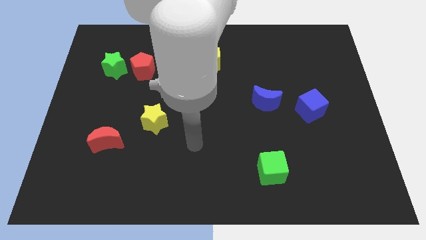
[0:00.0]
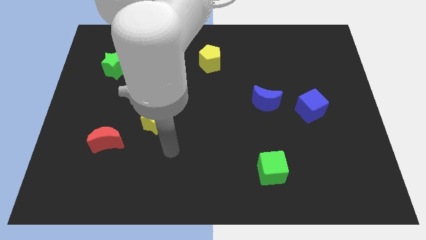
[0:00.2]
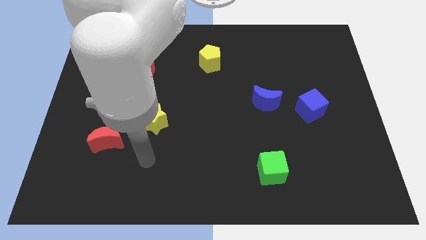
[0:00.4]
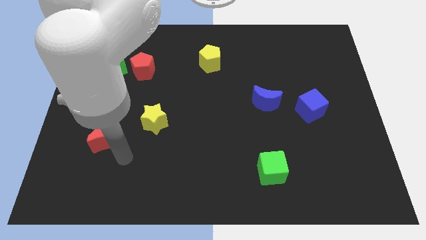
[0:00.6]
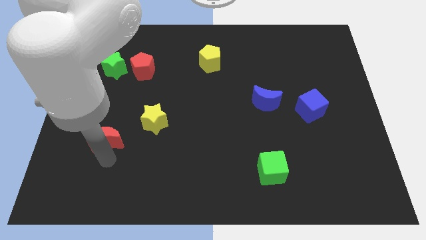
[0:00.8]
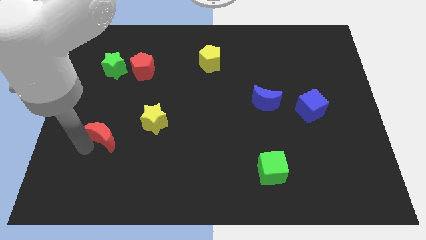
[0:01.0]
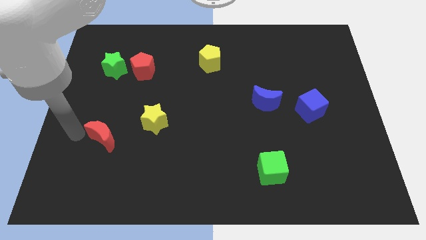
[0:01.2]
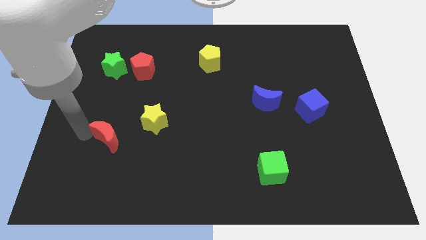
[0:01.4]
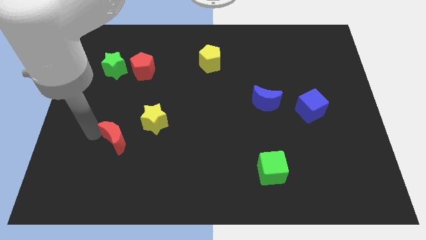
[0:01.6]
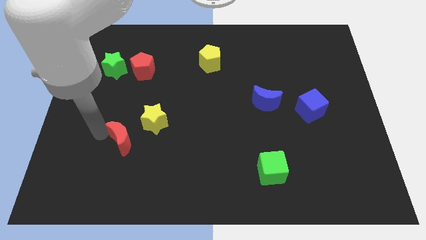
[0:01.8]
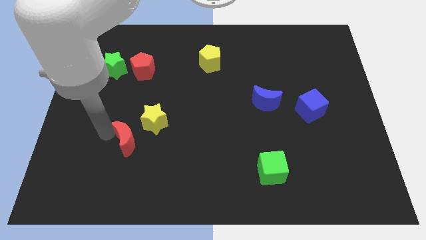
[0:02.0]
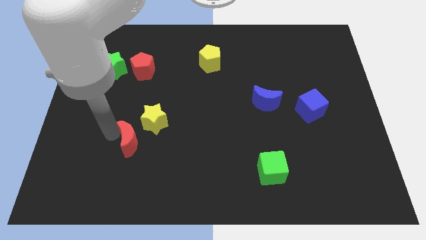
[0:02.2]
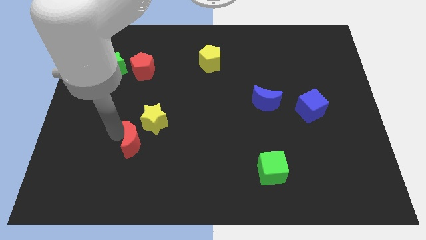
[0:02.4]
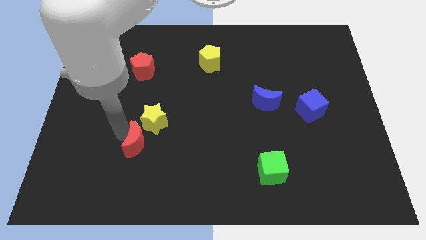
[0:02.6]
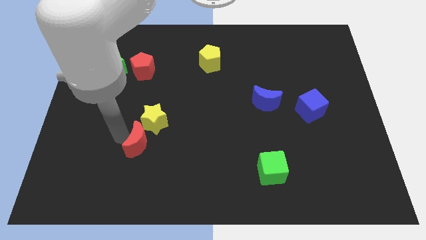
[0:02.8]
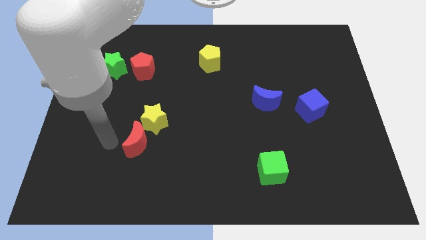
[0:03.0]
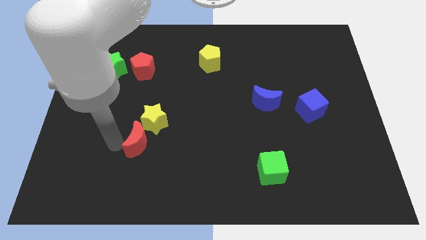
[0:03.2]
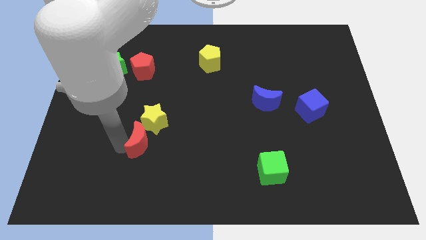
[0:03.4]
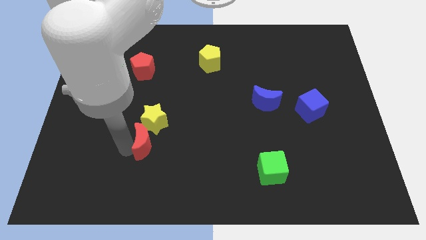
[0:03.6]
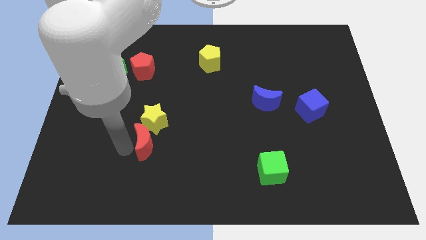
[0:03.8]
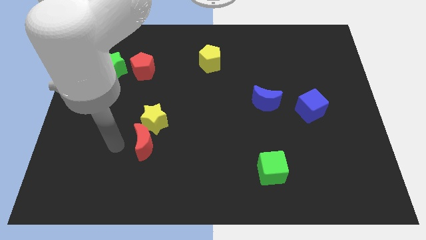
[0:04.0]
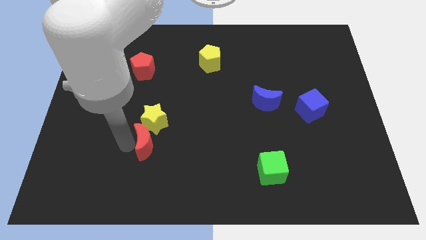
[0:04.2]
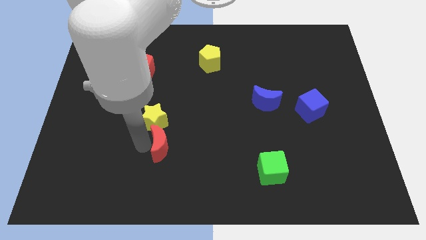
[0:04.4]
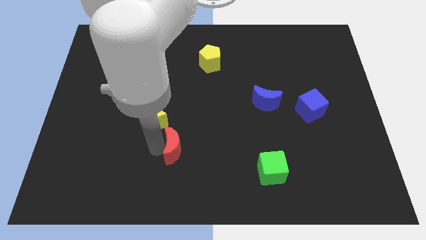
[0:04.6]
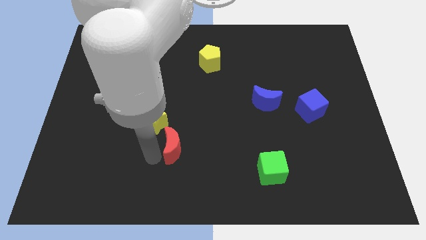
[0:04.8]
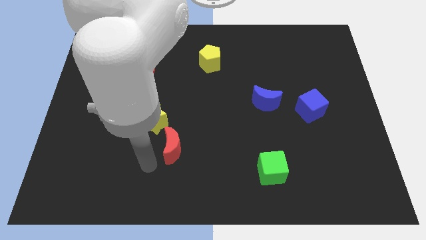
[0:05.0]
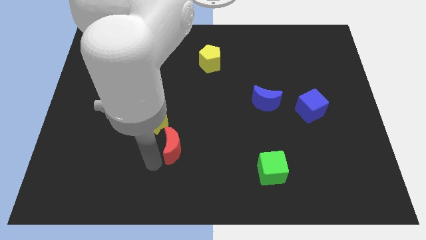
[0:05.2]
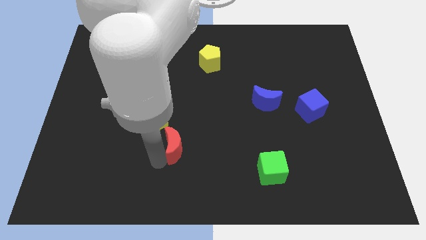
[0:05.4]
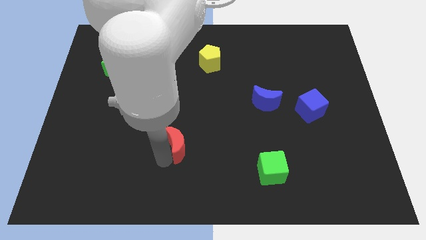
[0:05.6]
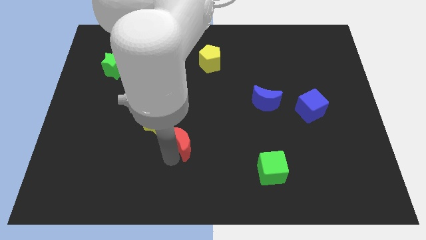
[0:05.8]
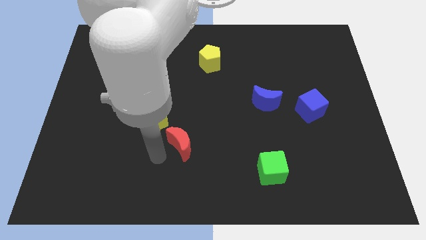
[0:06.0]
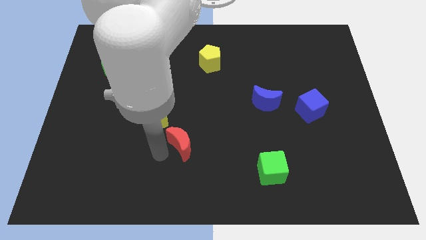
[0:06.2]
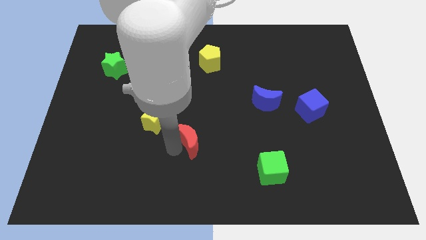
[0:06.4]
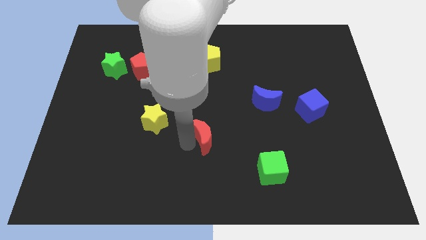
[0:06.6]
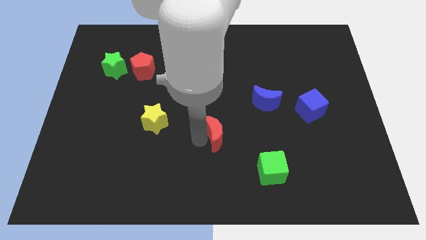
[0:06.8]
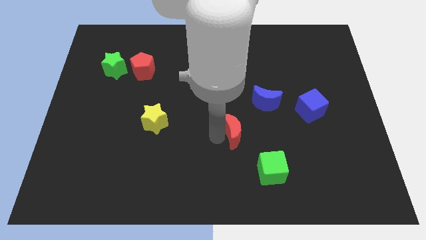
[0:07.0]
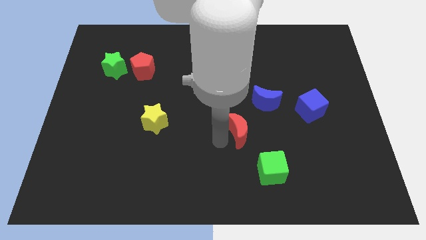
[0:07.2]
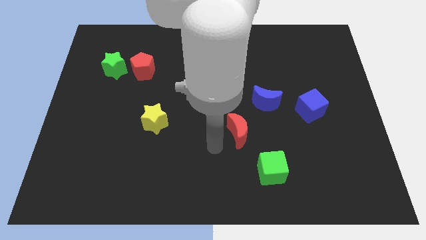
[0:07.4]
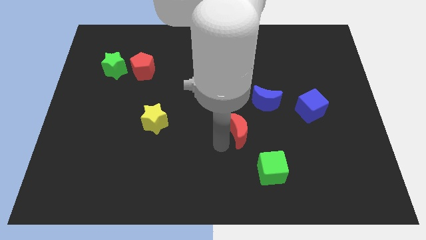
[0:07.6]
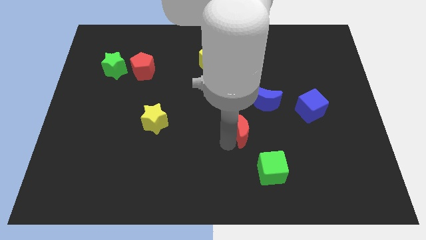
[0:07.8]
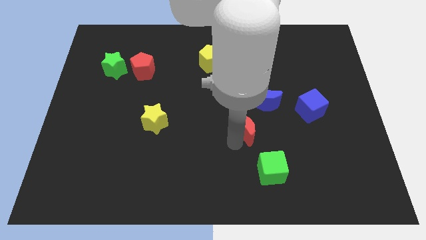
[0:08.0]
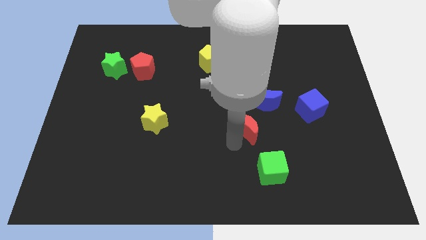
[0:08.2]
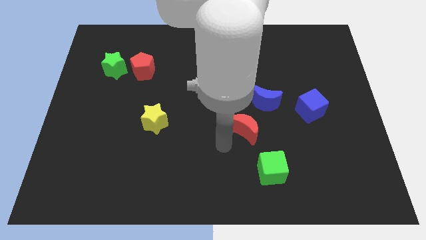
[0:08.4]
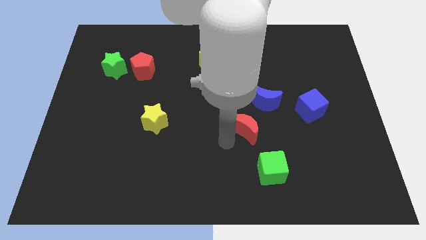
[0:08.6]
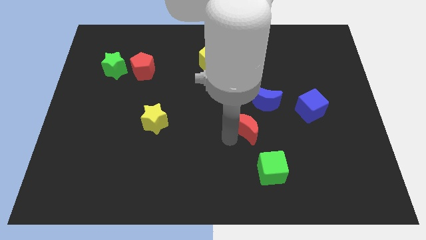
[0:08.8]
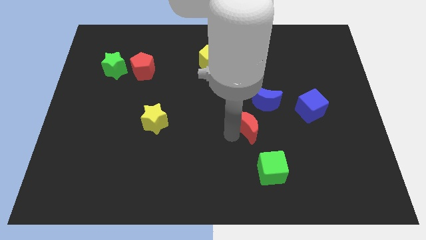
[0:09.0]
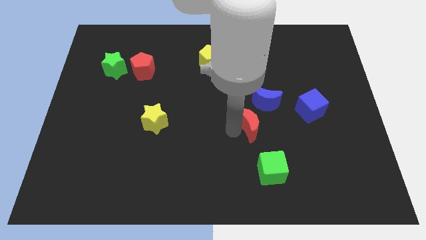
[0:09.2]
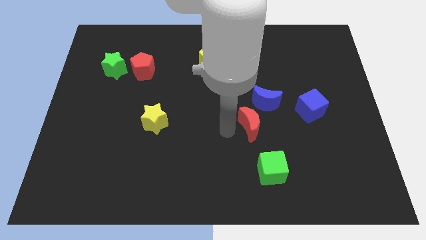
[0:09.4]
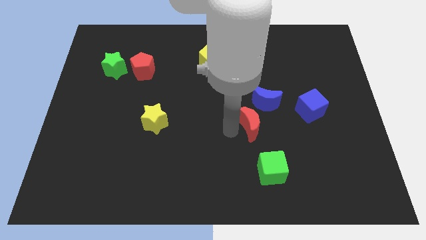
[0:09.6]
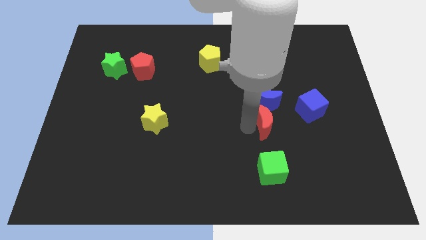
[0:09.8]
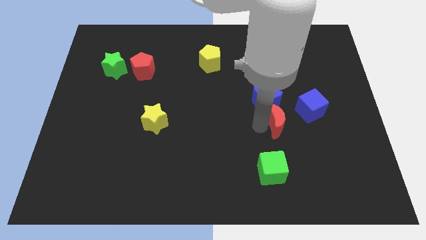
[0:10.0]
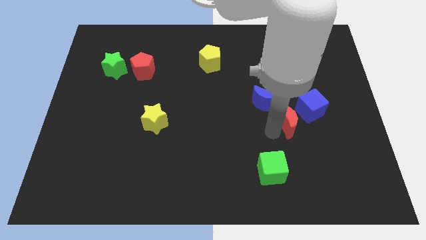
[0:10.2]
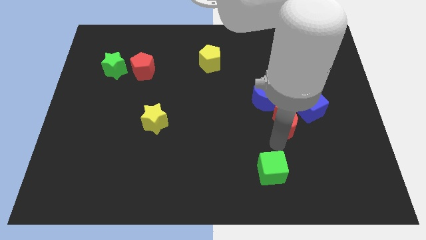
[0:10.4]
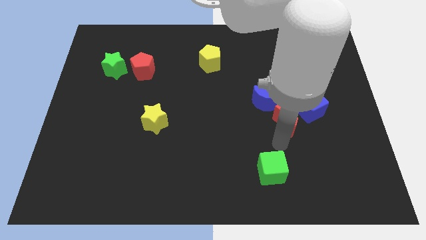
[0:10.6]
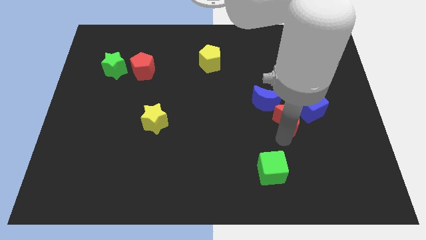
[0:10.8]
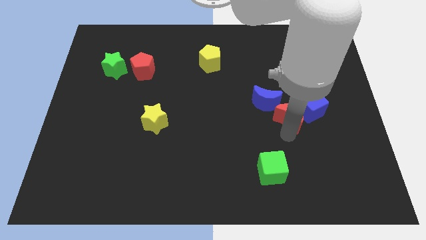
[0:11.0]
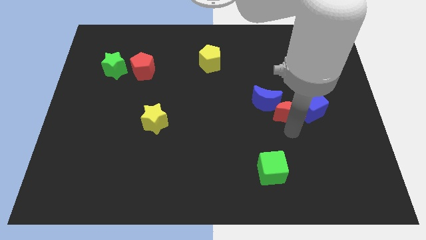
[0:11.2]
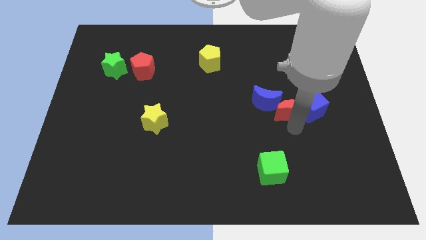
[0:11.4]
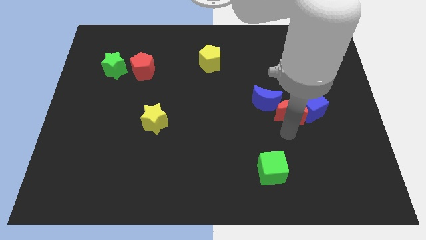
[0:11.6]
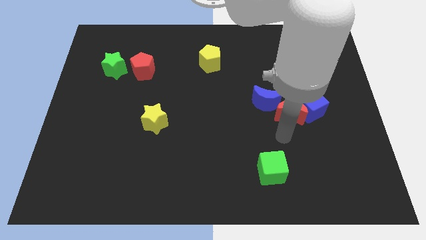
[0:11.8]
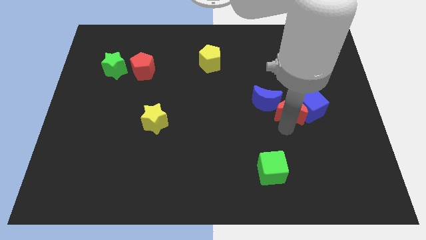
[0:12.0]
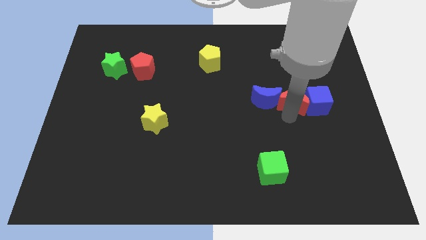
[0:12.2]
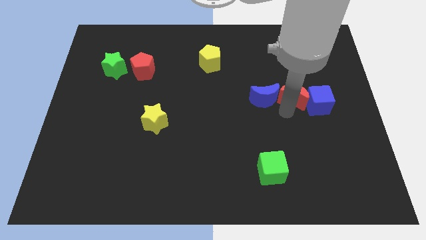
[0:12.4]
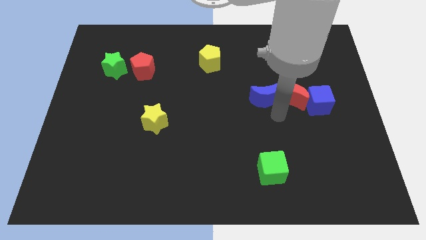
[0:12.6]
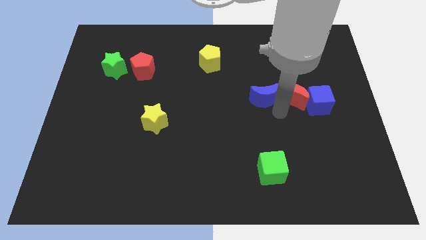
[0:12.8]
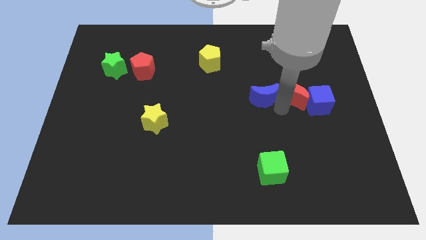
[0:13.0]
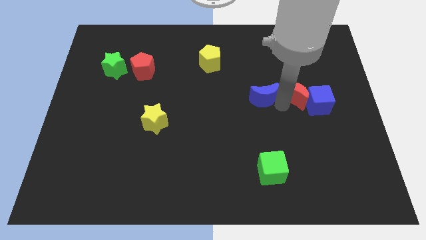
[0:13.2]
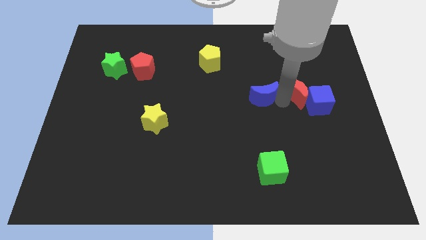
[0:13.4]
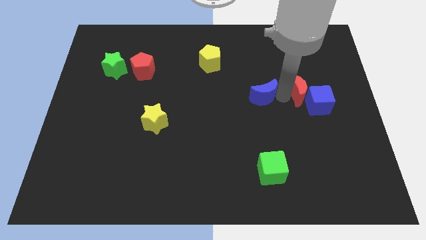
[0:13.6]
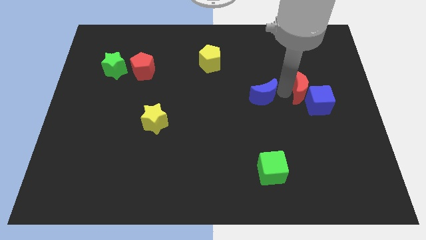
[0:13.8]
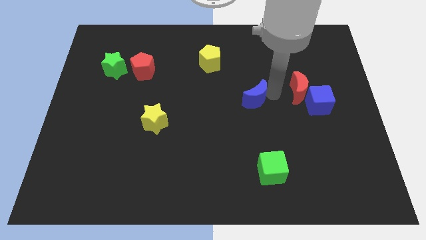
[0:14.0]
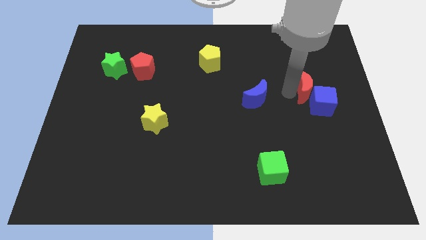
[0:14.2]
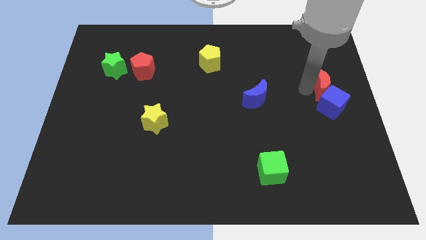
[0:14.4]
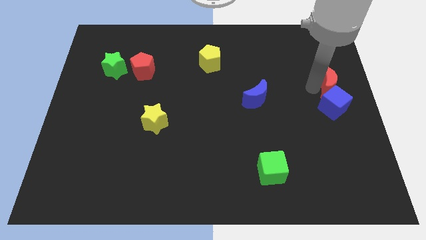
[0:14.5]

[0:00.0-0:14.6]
slide the red moon to the top right of the blue cube
